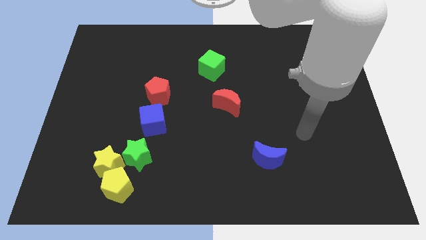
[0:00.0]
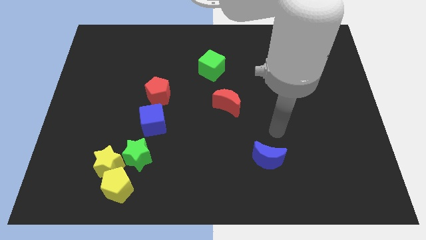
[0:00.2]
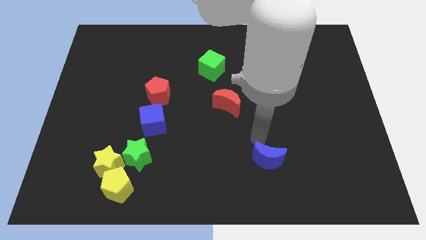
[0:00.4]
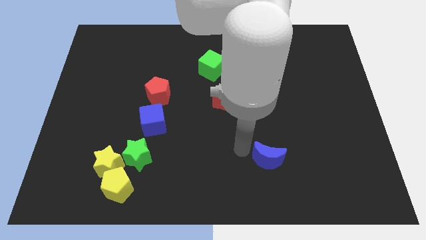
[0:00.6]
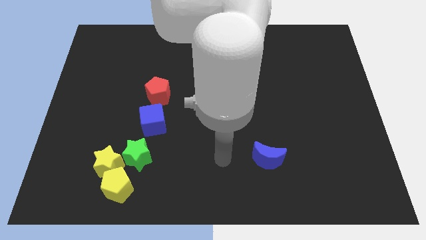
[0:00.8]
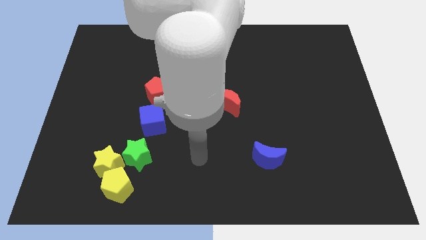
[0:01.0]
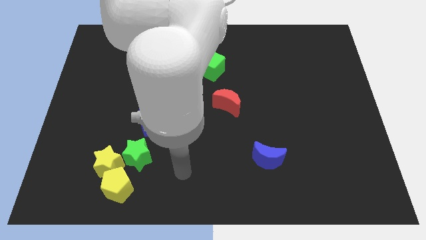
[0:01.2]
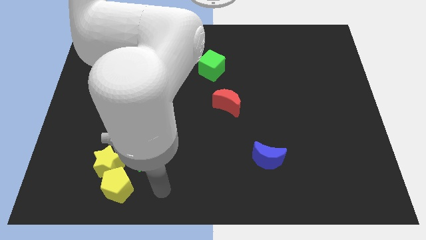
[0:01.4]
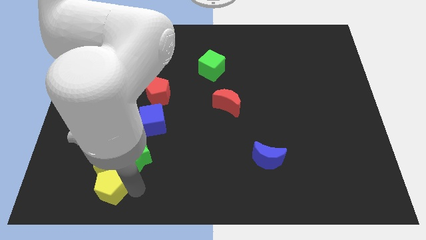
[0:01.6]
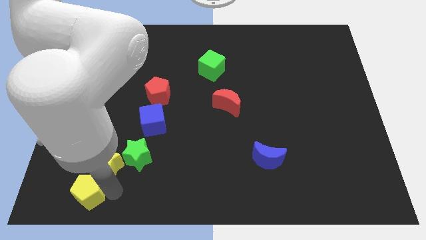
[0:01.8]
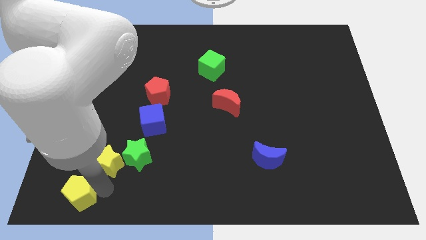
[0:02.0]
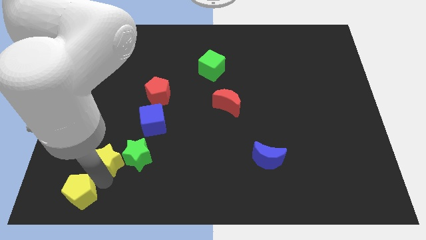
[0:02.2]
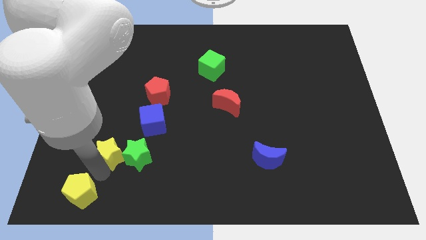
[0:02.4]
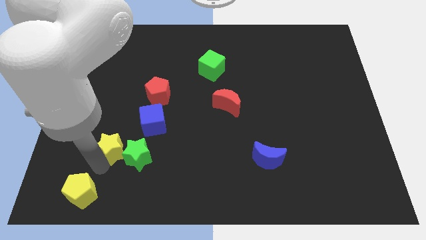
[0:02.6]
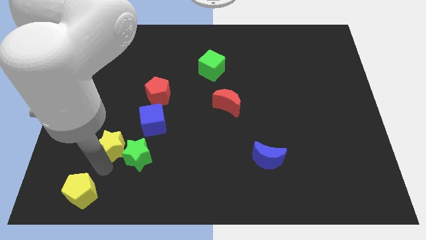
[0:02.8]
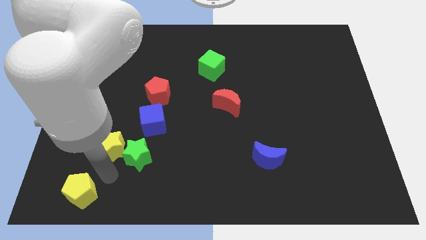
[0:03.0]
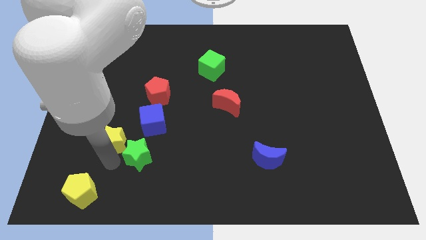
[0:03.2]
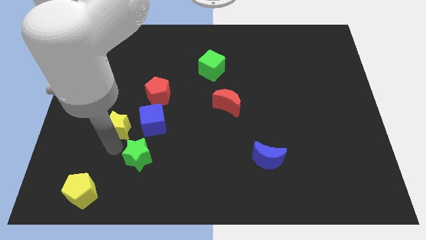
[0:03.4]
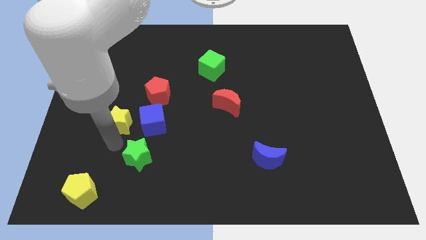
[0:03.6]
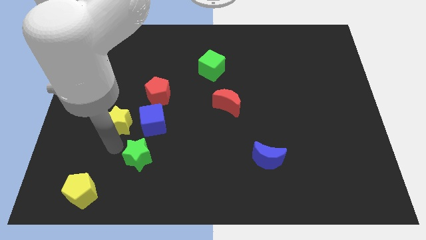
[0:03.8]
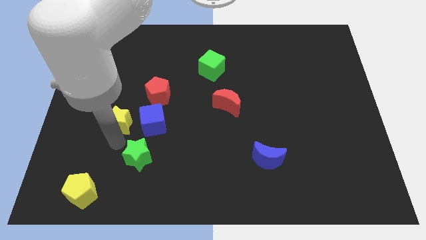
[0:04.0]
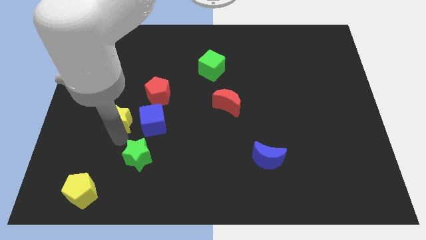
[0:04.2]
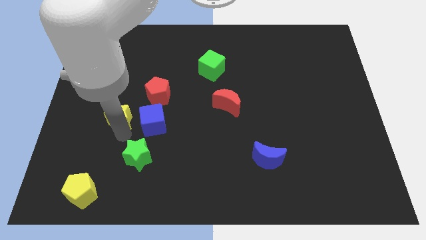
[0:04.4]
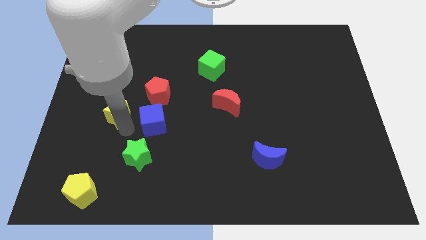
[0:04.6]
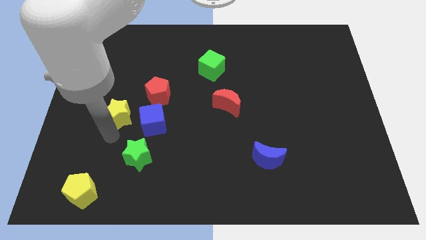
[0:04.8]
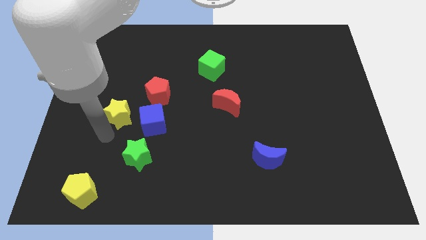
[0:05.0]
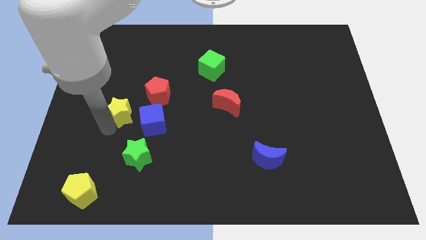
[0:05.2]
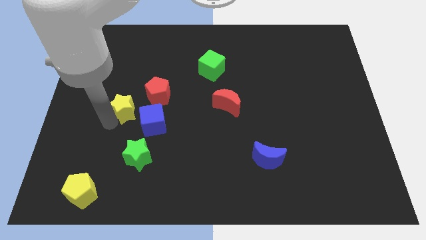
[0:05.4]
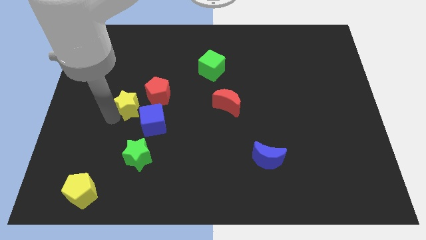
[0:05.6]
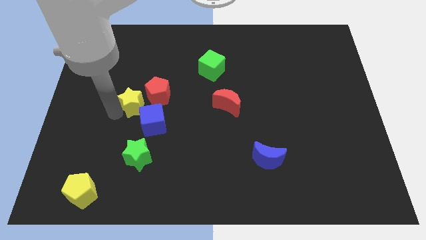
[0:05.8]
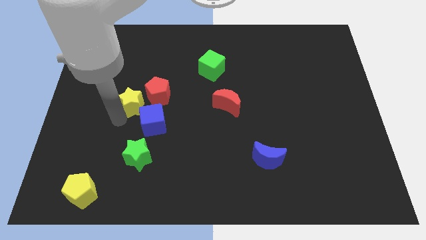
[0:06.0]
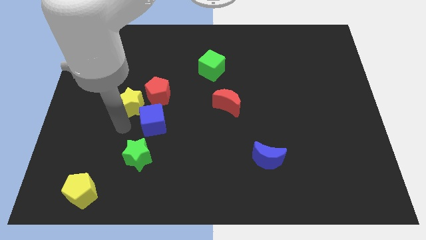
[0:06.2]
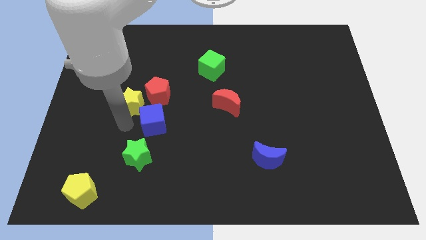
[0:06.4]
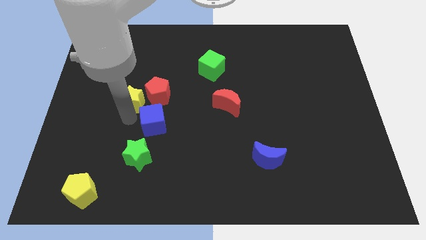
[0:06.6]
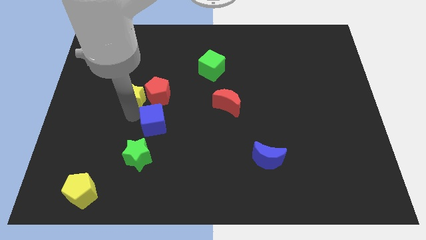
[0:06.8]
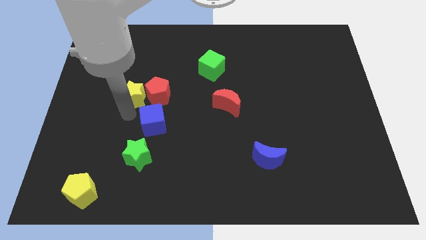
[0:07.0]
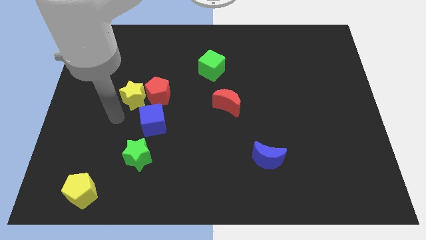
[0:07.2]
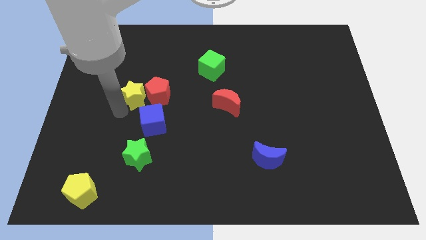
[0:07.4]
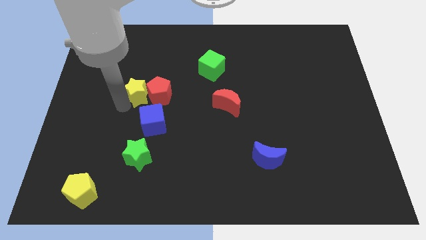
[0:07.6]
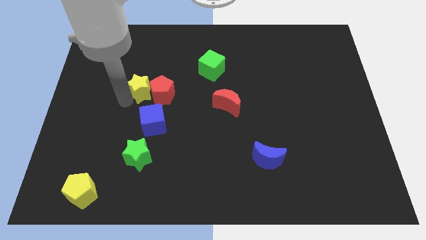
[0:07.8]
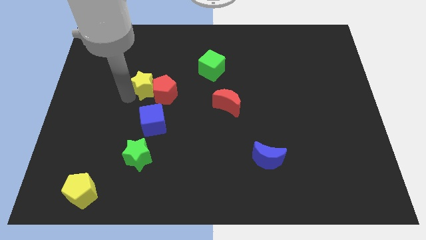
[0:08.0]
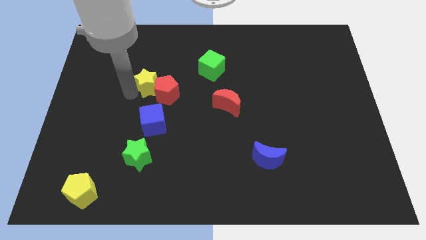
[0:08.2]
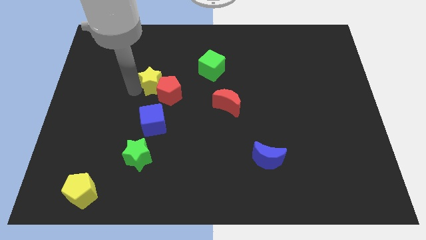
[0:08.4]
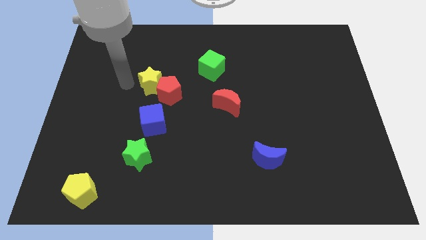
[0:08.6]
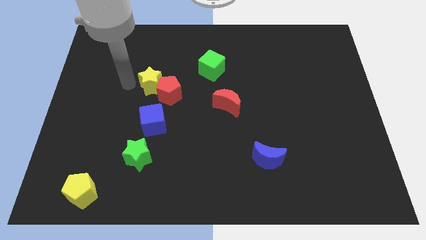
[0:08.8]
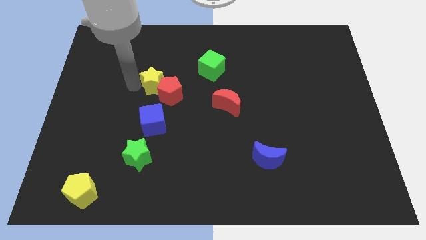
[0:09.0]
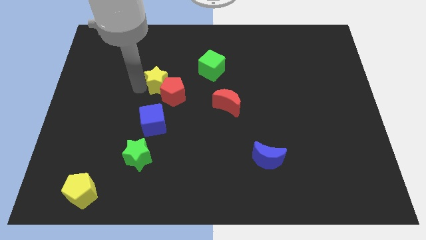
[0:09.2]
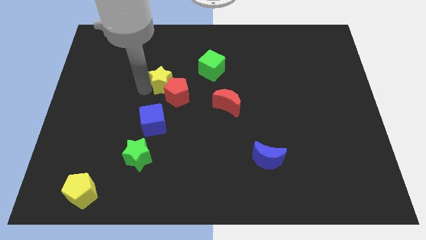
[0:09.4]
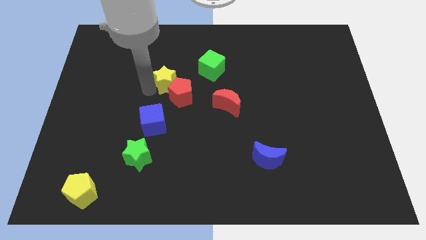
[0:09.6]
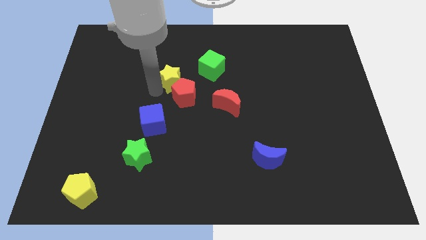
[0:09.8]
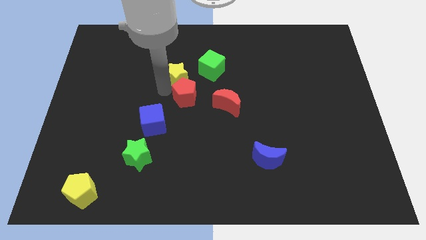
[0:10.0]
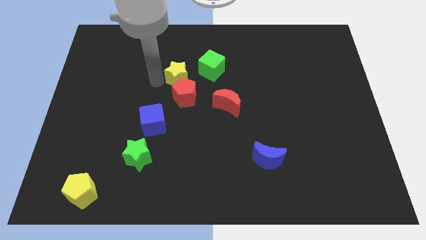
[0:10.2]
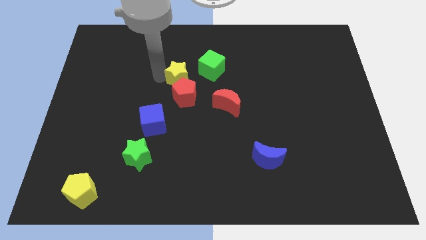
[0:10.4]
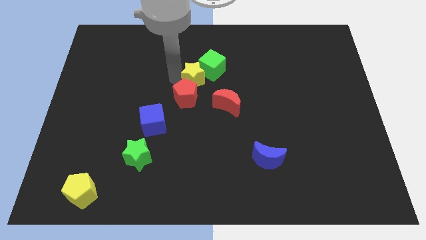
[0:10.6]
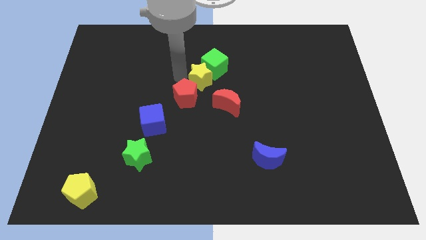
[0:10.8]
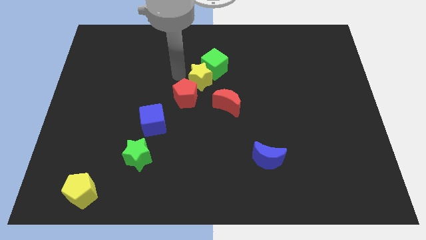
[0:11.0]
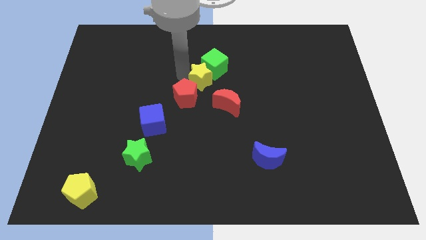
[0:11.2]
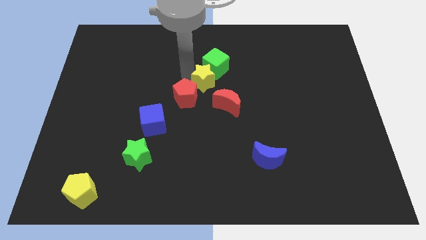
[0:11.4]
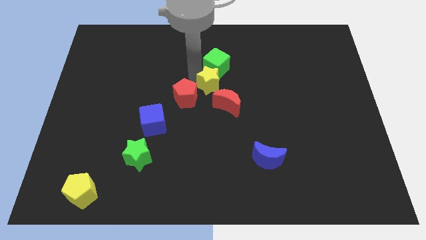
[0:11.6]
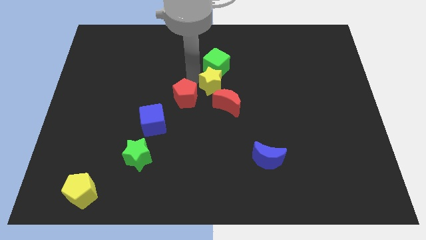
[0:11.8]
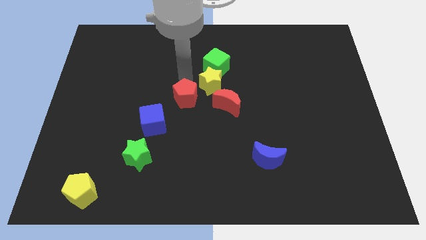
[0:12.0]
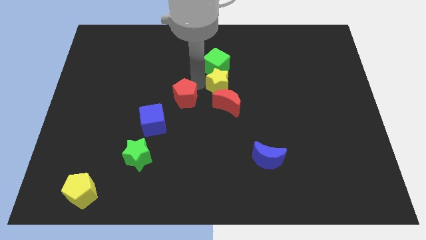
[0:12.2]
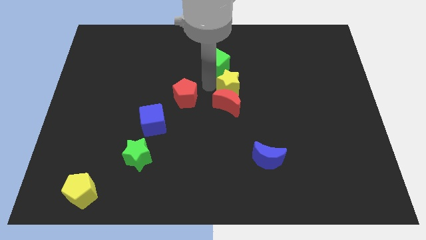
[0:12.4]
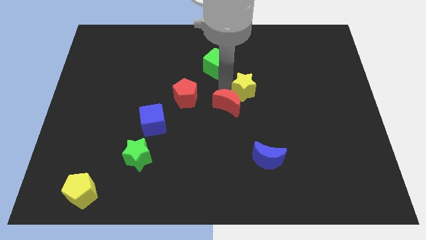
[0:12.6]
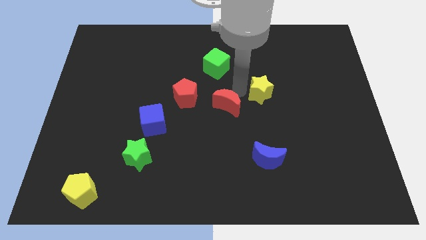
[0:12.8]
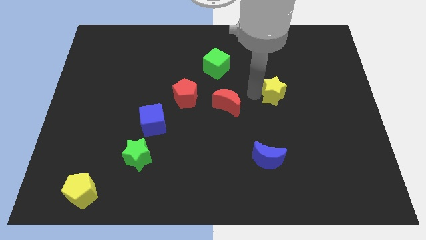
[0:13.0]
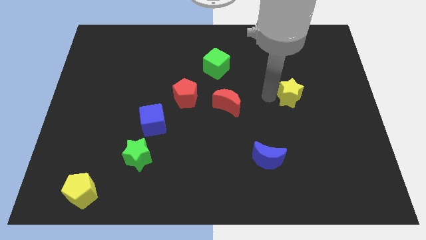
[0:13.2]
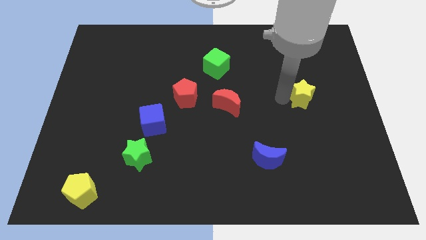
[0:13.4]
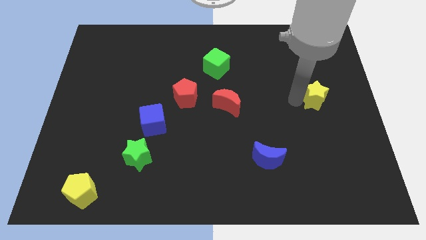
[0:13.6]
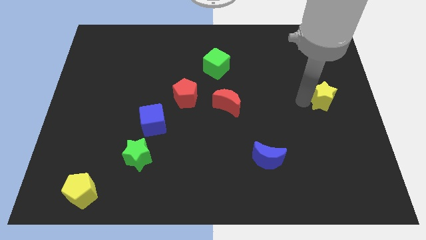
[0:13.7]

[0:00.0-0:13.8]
slide the yellow star to the center right
